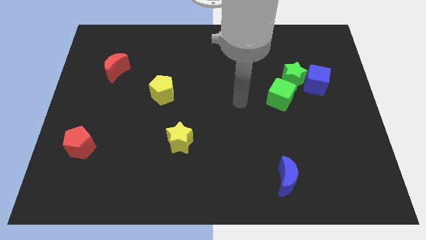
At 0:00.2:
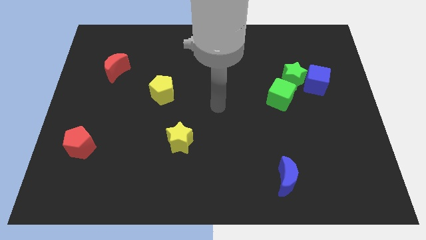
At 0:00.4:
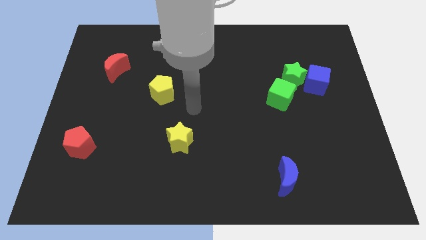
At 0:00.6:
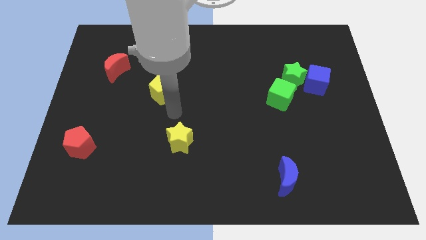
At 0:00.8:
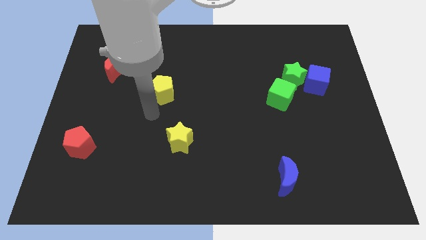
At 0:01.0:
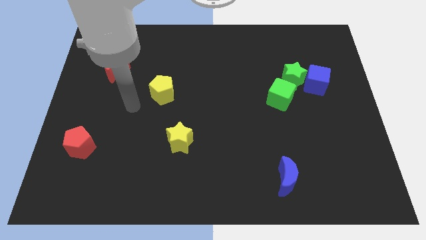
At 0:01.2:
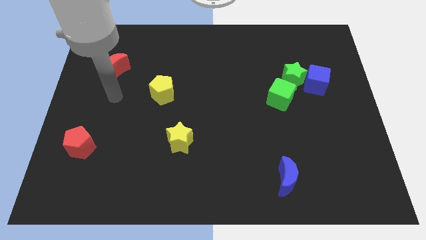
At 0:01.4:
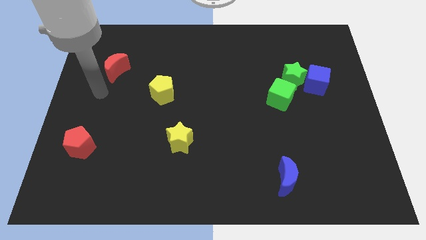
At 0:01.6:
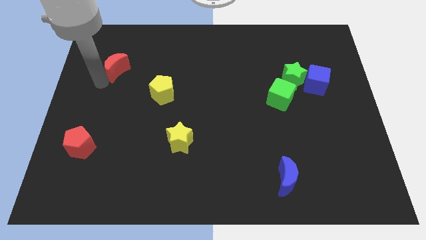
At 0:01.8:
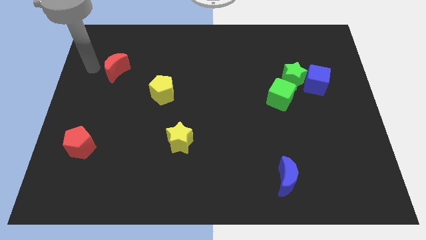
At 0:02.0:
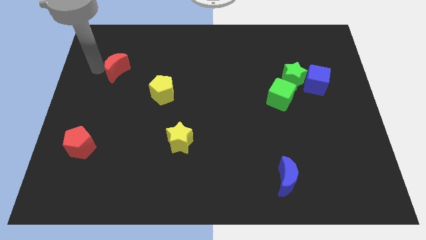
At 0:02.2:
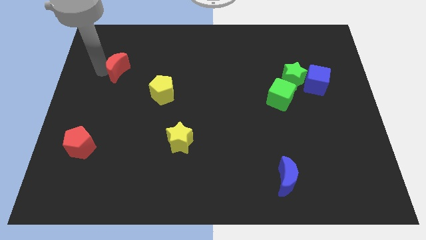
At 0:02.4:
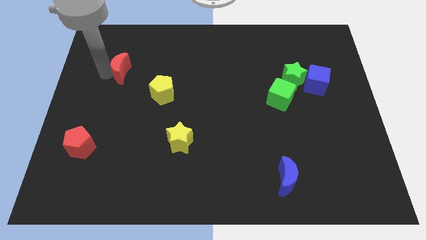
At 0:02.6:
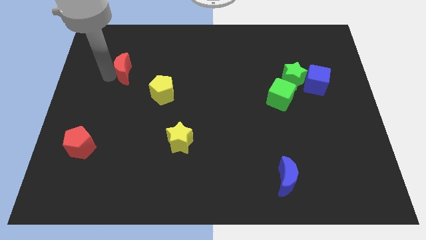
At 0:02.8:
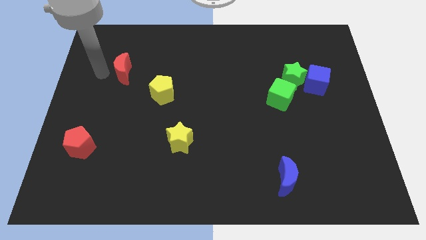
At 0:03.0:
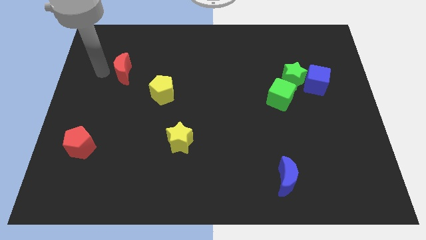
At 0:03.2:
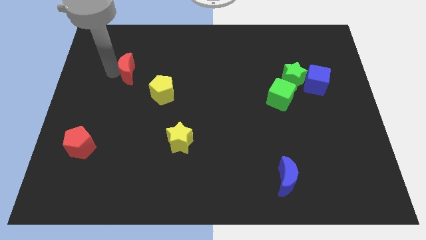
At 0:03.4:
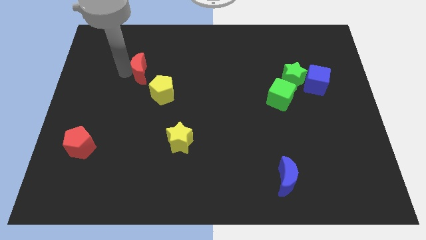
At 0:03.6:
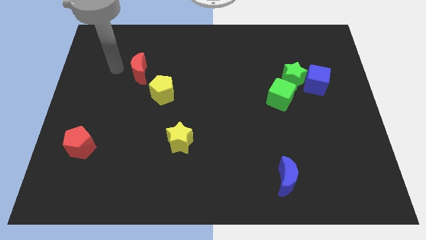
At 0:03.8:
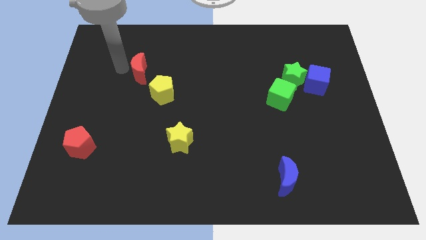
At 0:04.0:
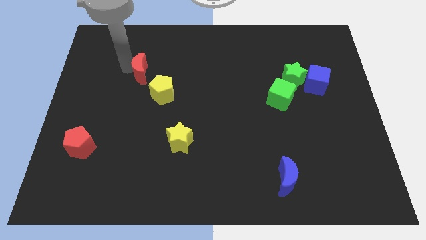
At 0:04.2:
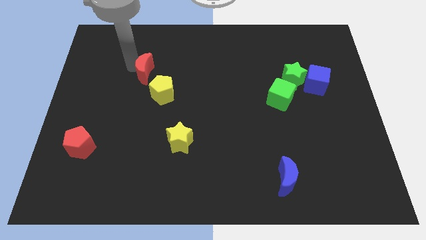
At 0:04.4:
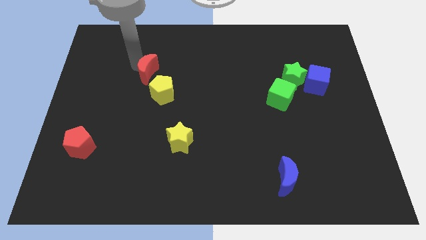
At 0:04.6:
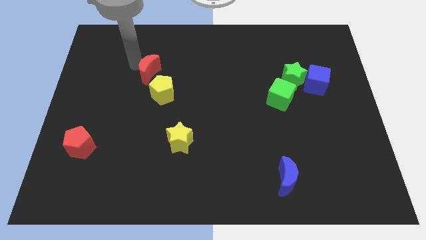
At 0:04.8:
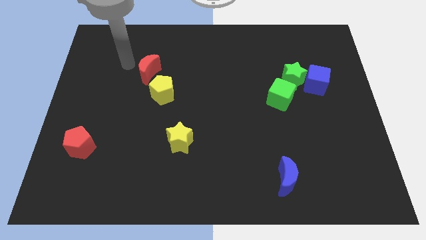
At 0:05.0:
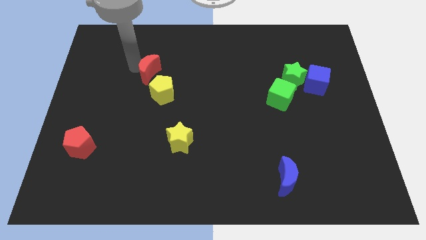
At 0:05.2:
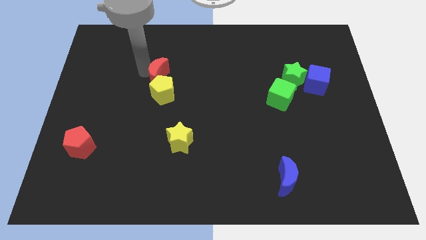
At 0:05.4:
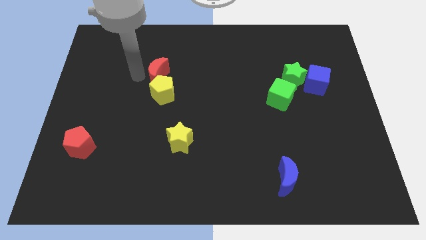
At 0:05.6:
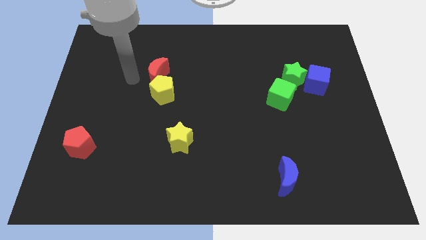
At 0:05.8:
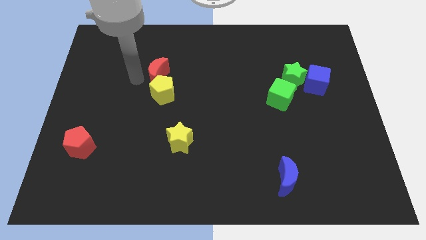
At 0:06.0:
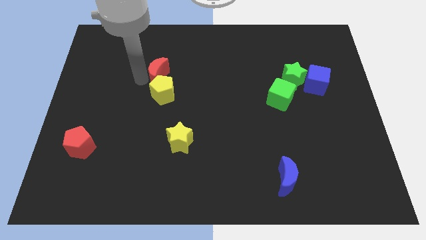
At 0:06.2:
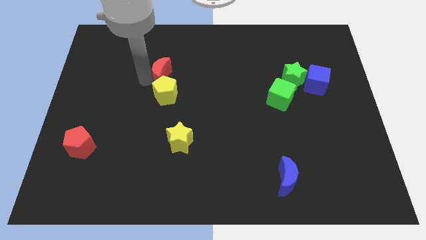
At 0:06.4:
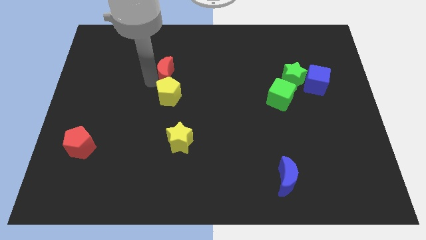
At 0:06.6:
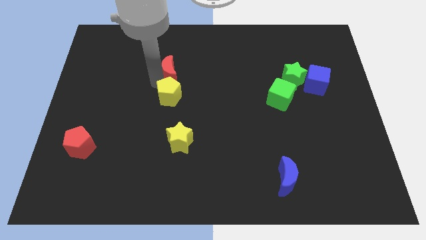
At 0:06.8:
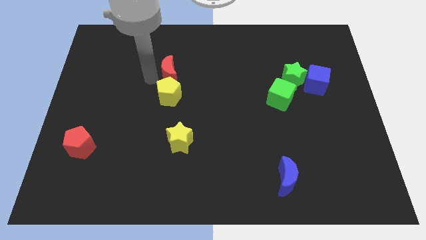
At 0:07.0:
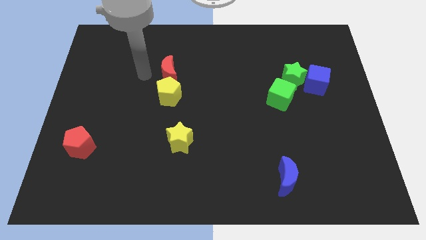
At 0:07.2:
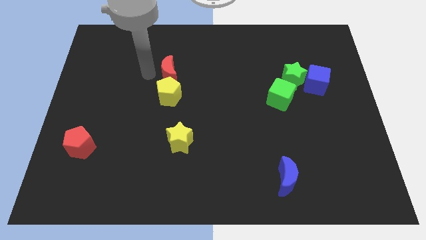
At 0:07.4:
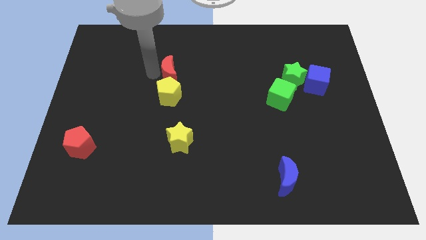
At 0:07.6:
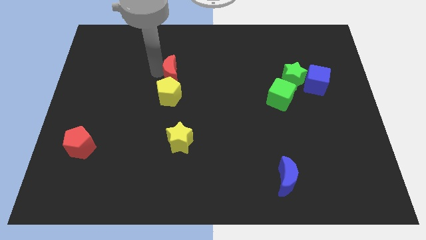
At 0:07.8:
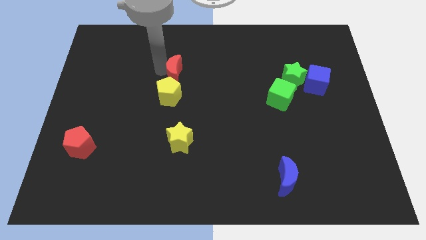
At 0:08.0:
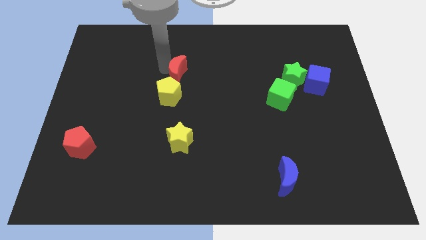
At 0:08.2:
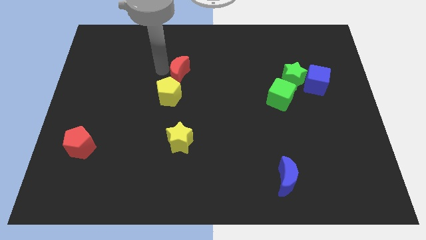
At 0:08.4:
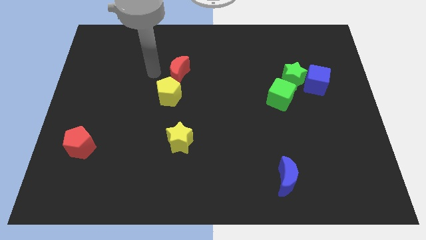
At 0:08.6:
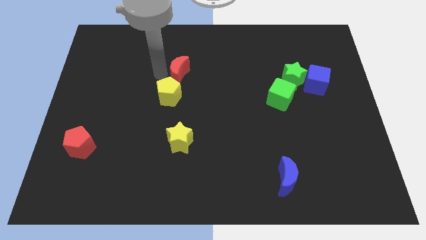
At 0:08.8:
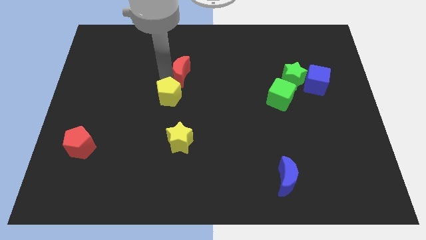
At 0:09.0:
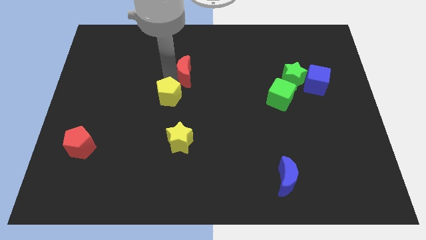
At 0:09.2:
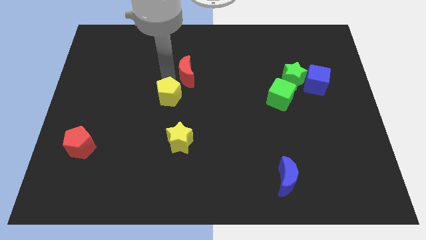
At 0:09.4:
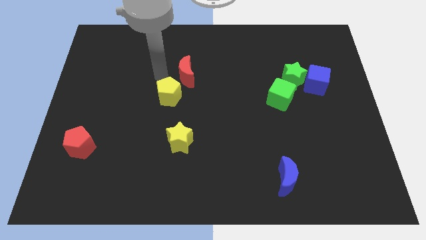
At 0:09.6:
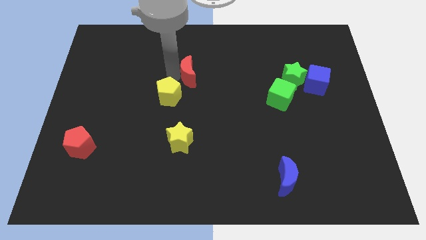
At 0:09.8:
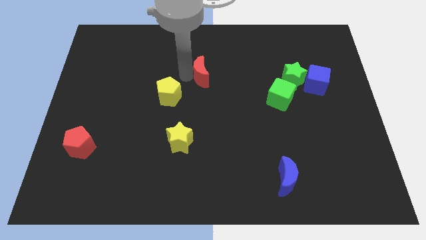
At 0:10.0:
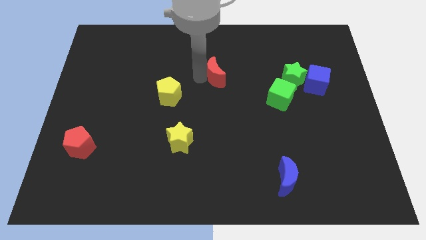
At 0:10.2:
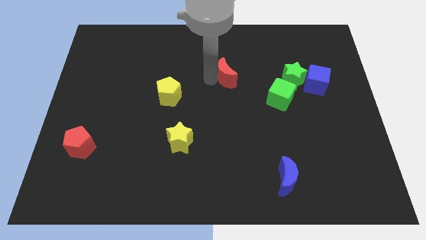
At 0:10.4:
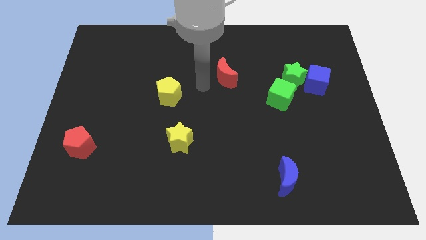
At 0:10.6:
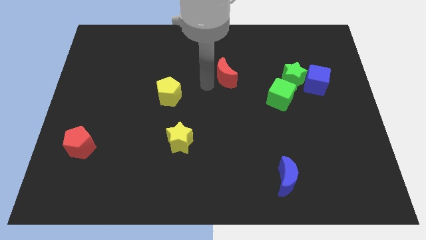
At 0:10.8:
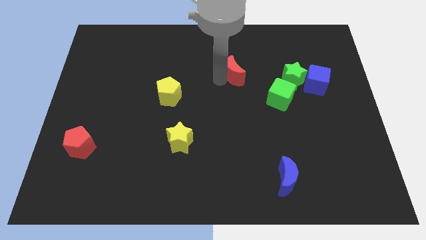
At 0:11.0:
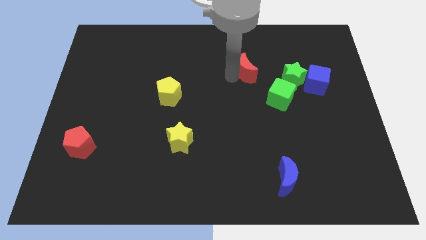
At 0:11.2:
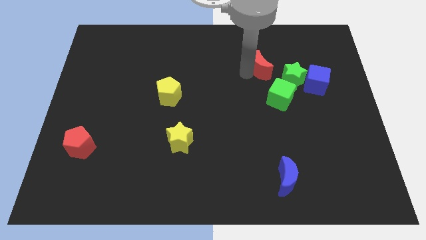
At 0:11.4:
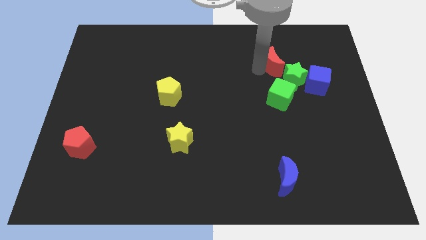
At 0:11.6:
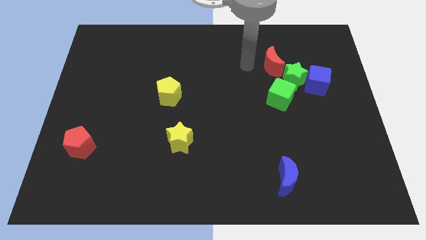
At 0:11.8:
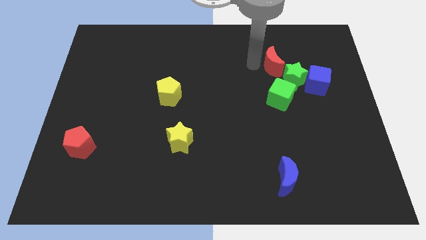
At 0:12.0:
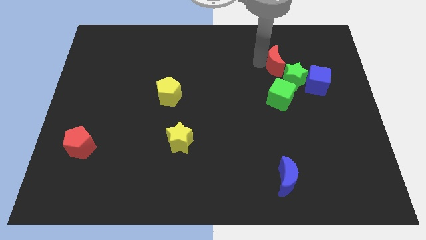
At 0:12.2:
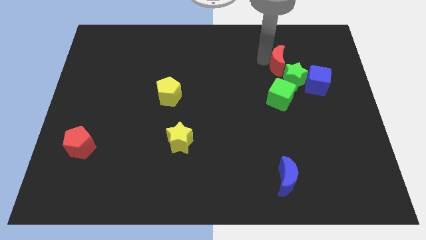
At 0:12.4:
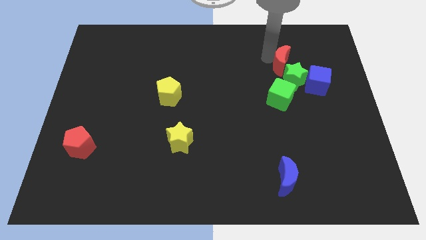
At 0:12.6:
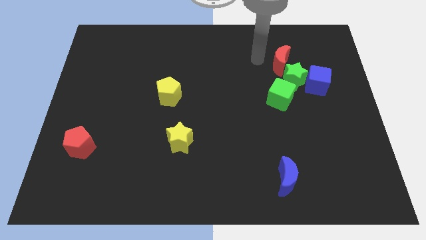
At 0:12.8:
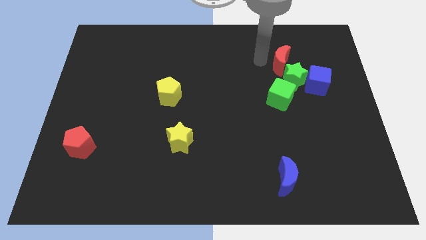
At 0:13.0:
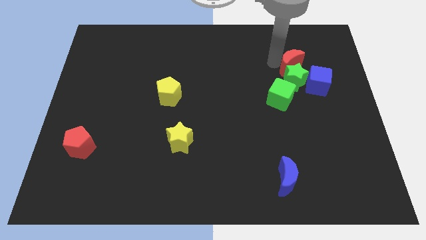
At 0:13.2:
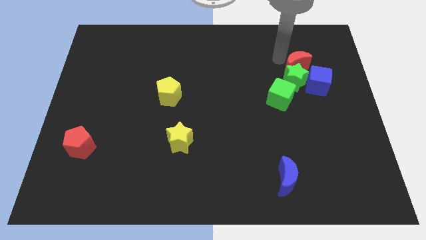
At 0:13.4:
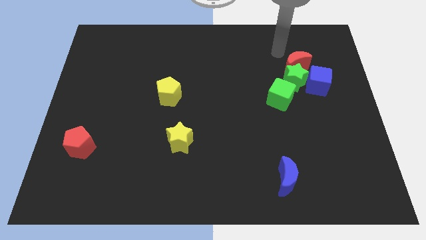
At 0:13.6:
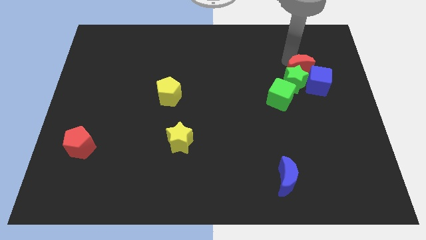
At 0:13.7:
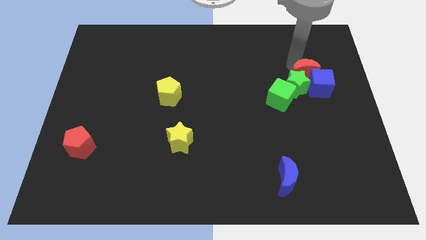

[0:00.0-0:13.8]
slide the red moon to the blue cube
